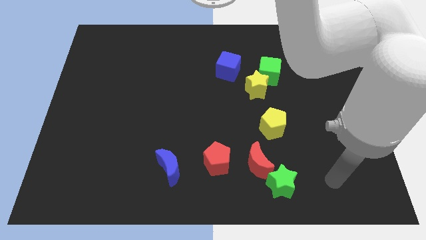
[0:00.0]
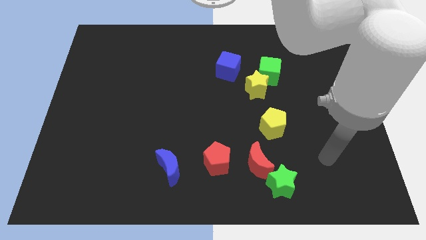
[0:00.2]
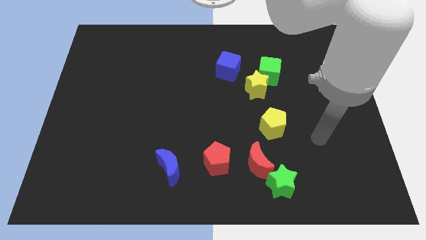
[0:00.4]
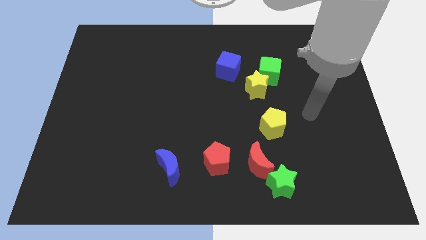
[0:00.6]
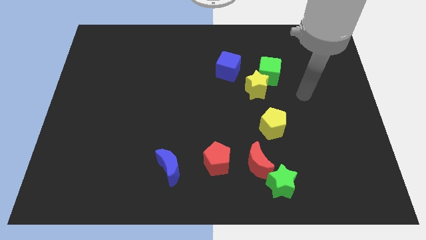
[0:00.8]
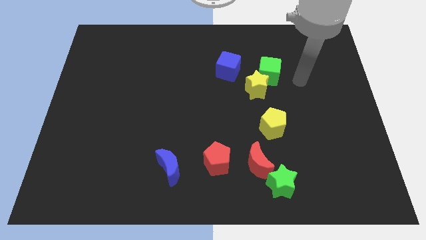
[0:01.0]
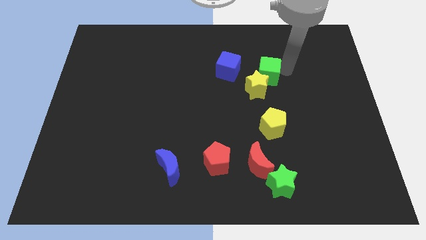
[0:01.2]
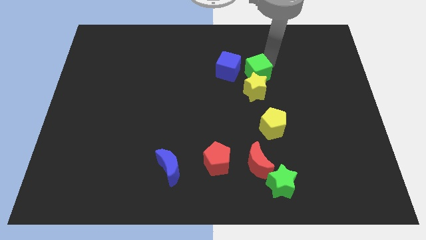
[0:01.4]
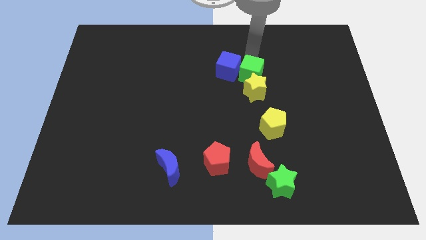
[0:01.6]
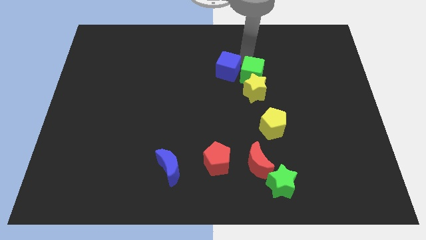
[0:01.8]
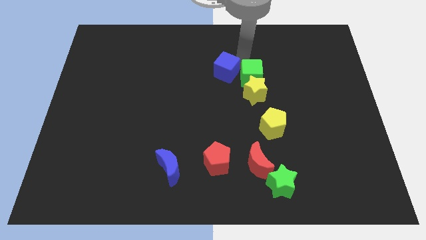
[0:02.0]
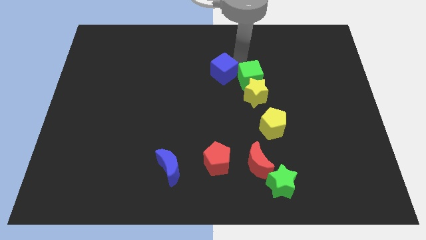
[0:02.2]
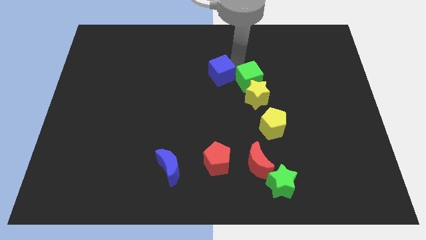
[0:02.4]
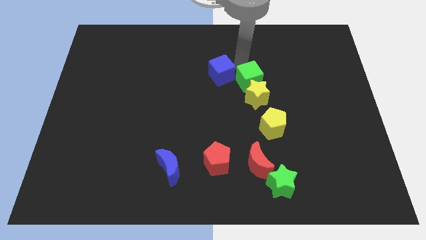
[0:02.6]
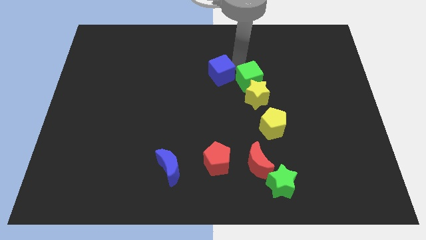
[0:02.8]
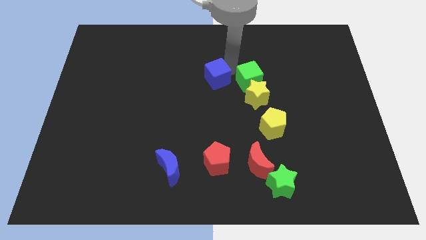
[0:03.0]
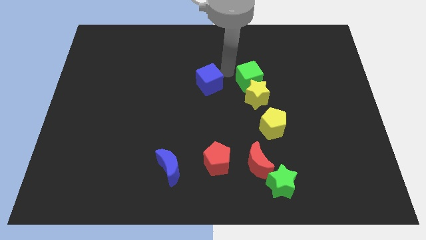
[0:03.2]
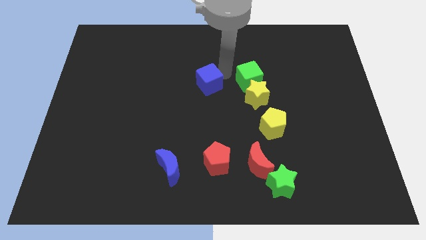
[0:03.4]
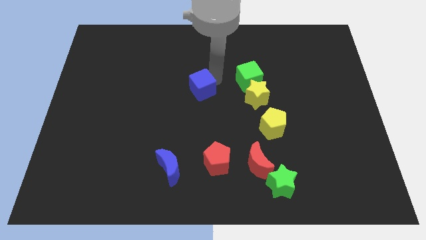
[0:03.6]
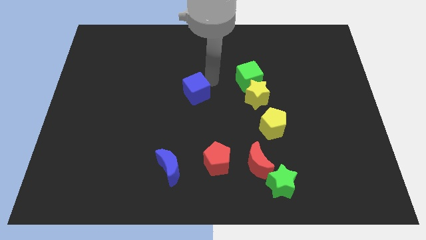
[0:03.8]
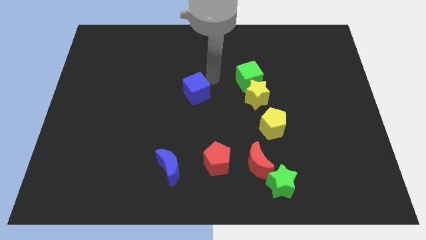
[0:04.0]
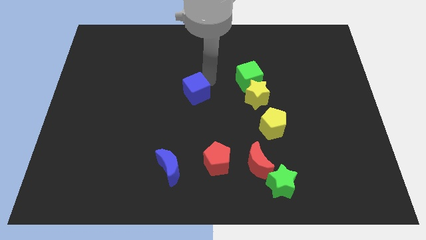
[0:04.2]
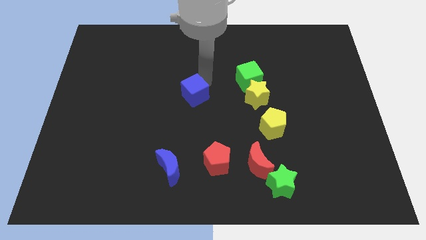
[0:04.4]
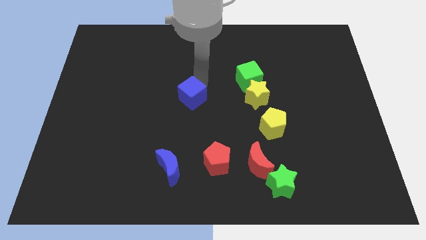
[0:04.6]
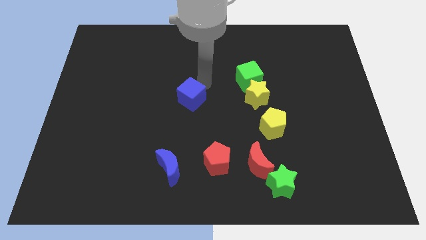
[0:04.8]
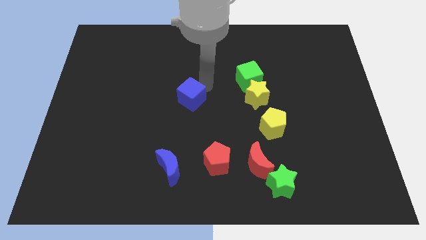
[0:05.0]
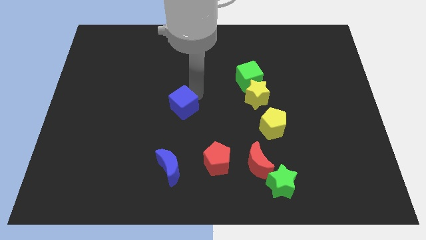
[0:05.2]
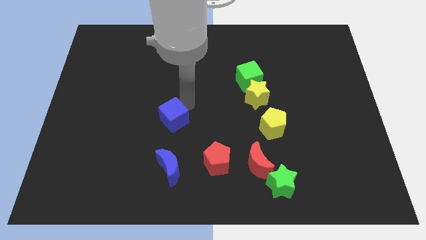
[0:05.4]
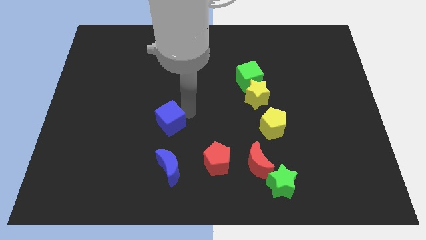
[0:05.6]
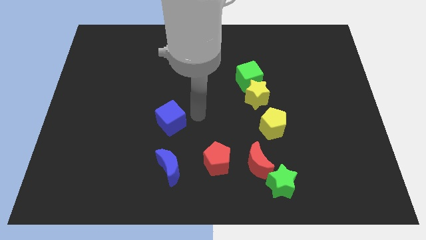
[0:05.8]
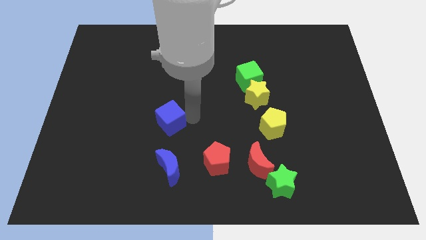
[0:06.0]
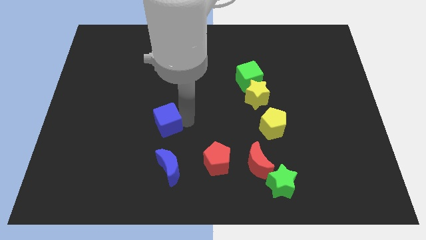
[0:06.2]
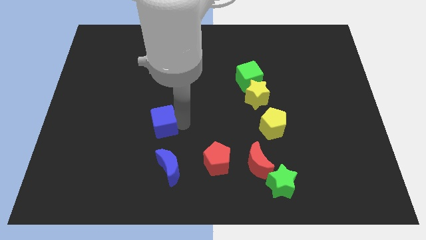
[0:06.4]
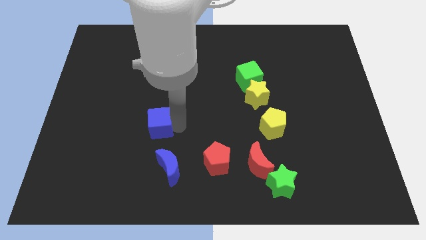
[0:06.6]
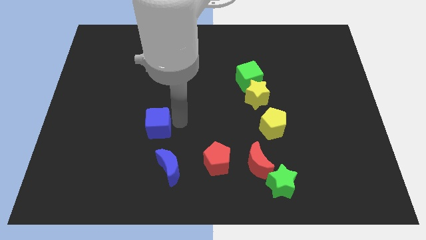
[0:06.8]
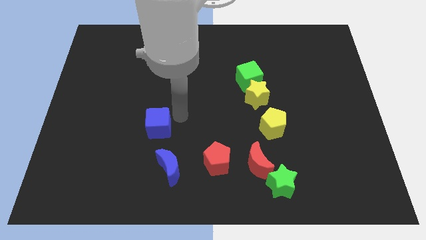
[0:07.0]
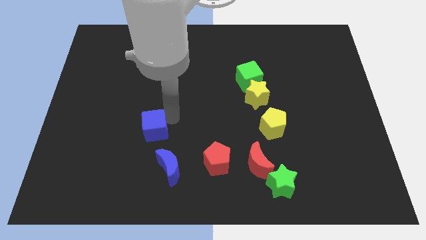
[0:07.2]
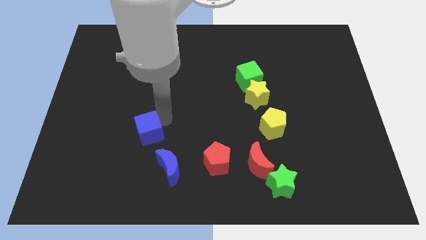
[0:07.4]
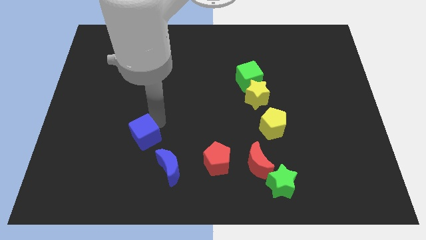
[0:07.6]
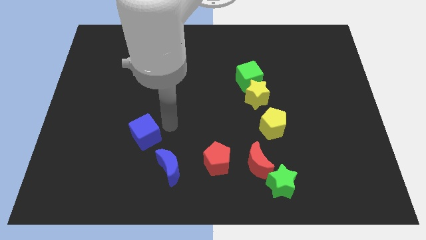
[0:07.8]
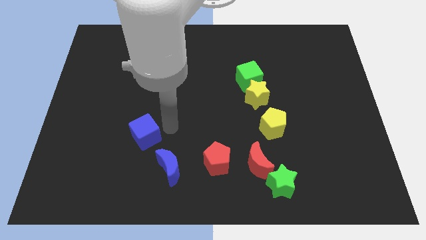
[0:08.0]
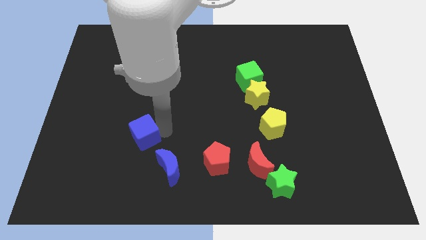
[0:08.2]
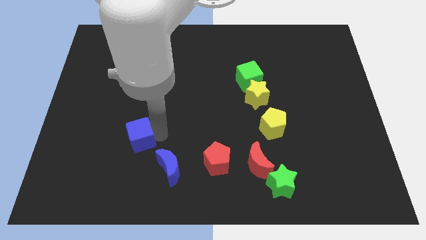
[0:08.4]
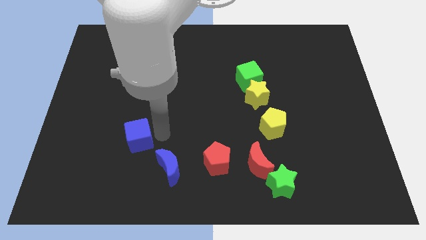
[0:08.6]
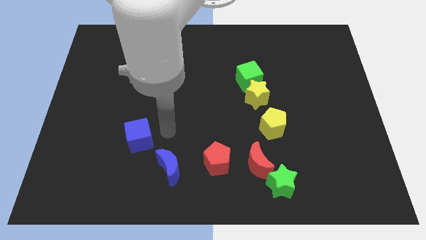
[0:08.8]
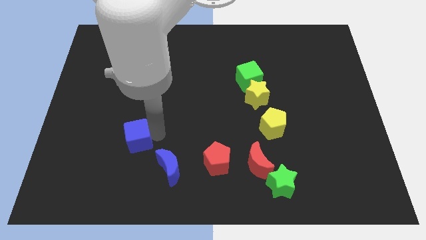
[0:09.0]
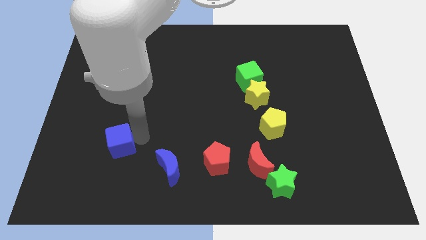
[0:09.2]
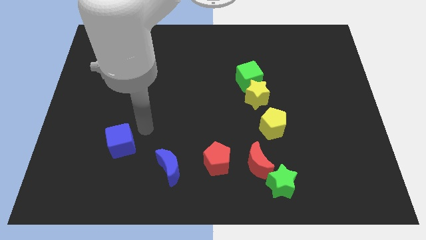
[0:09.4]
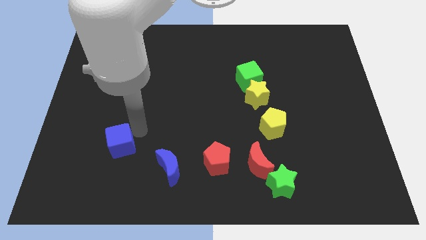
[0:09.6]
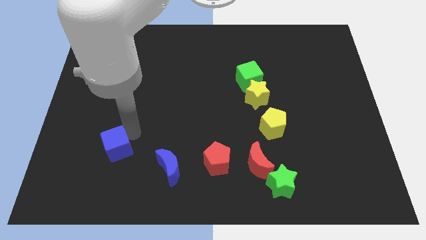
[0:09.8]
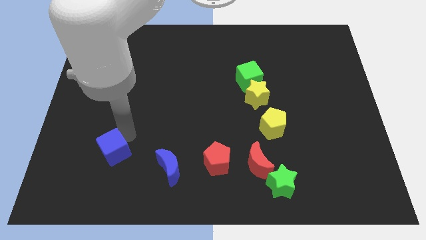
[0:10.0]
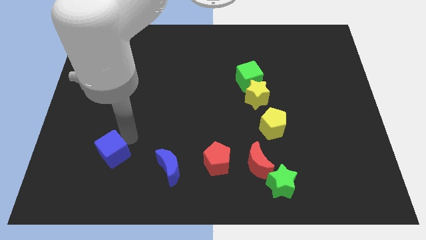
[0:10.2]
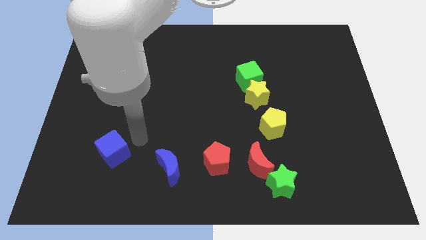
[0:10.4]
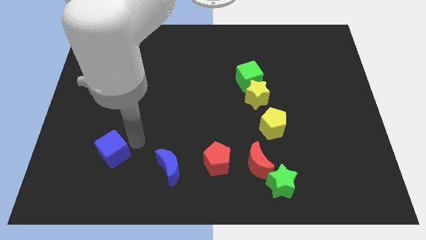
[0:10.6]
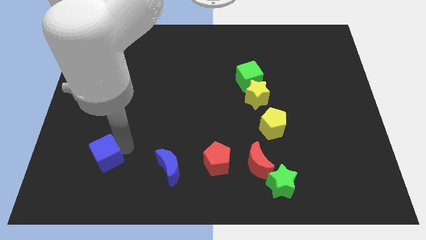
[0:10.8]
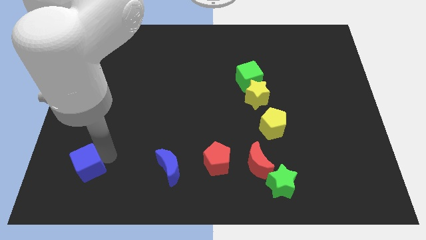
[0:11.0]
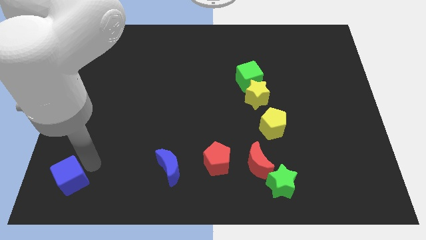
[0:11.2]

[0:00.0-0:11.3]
slide the blue cube to the lower left corner

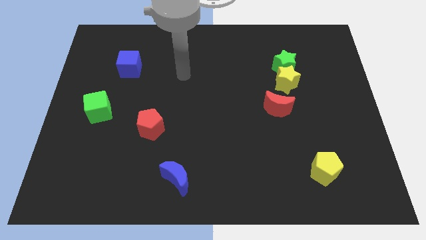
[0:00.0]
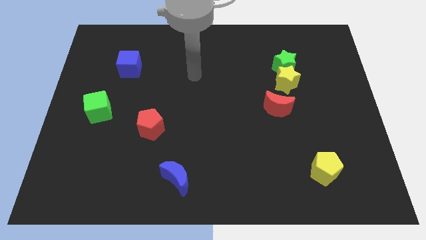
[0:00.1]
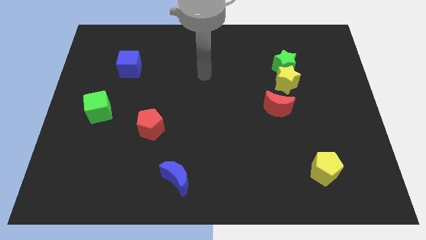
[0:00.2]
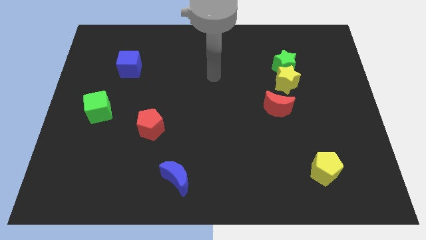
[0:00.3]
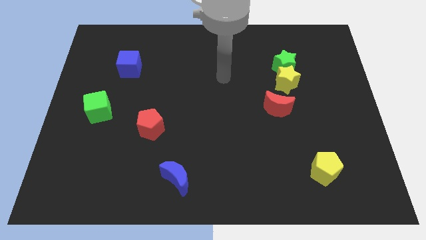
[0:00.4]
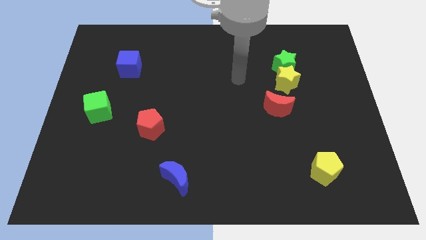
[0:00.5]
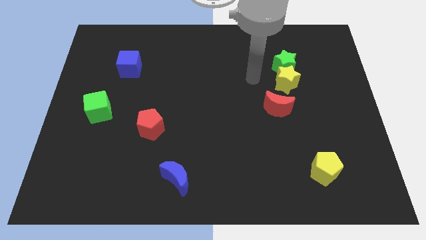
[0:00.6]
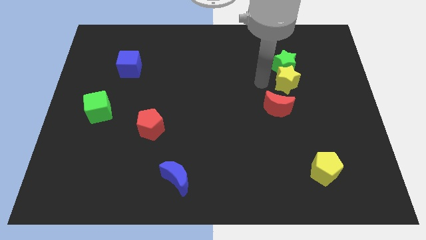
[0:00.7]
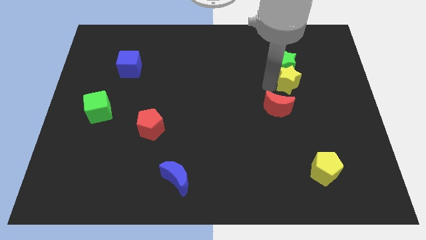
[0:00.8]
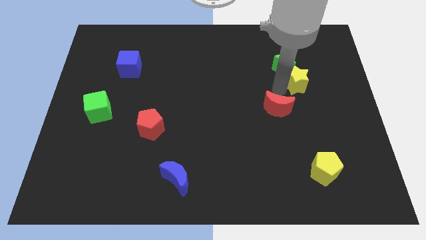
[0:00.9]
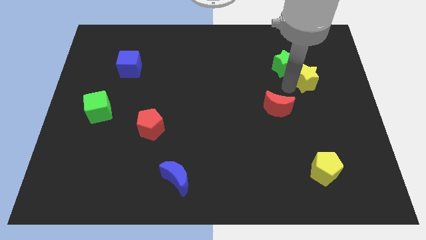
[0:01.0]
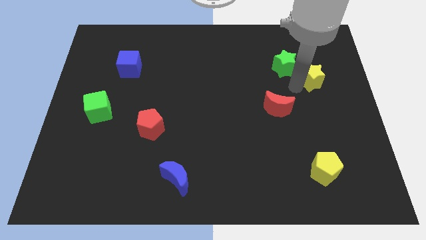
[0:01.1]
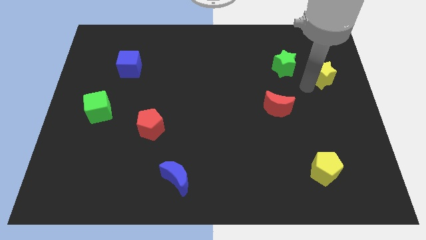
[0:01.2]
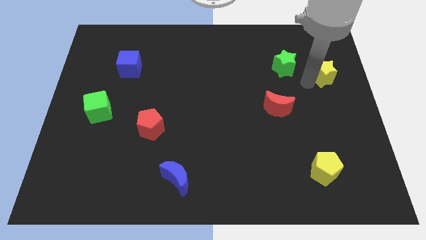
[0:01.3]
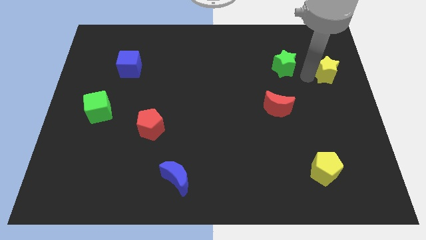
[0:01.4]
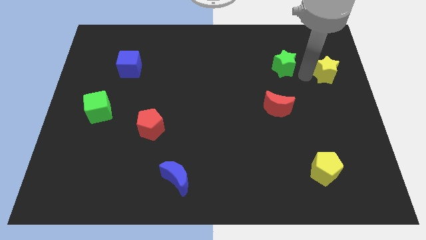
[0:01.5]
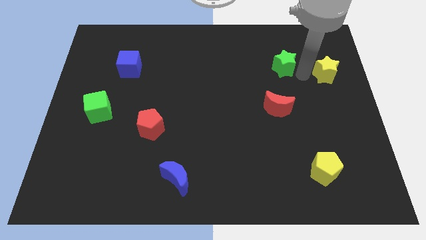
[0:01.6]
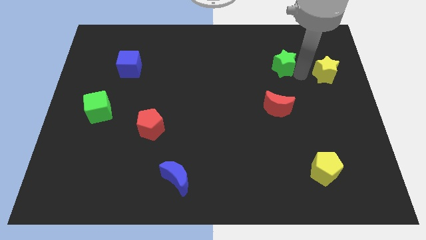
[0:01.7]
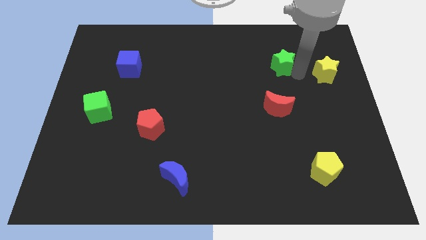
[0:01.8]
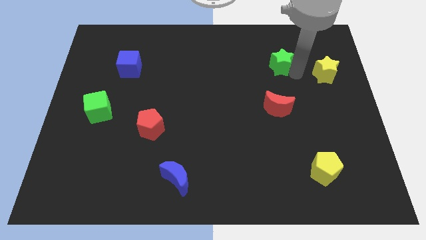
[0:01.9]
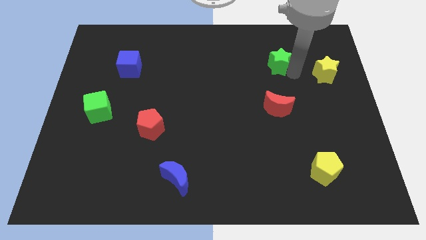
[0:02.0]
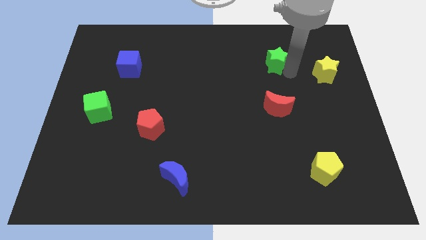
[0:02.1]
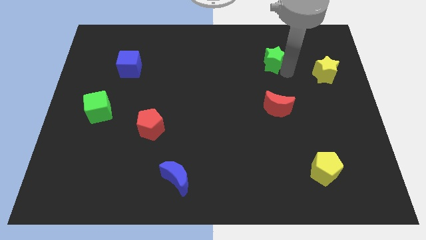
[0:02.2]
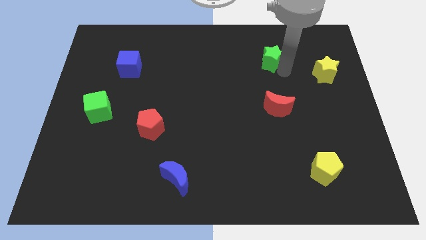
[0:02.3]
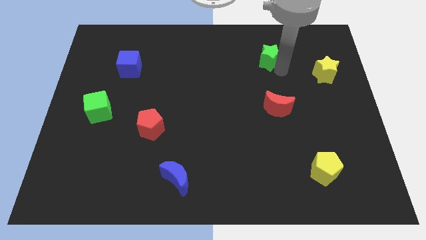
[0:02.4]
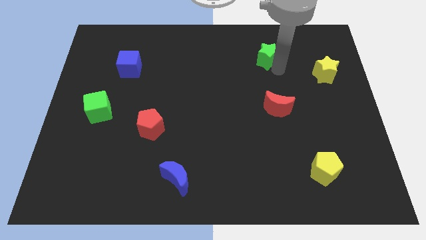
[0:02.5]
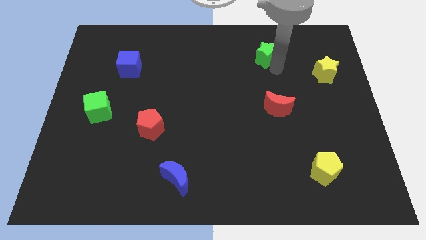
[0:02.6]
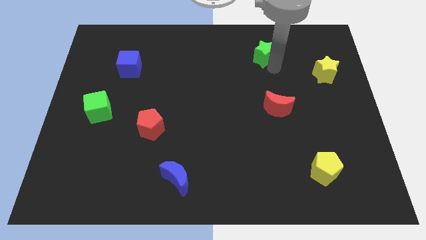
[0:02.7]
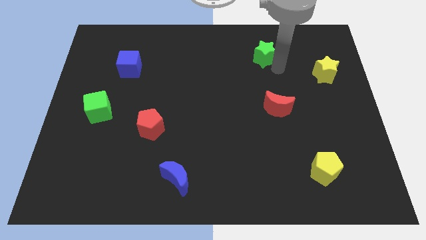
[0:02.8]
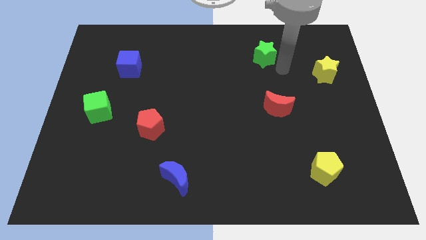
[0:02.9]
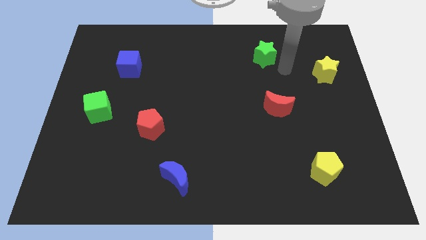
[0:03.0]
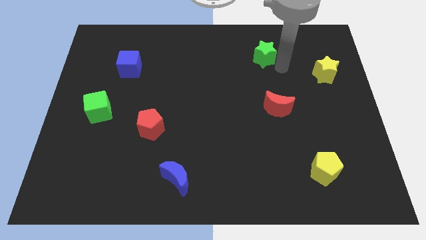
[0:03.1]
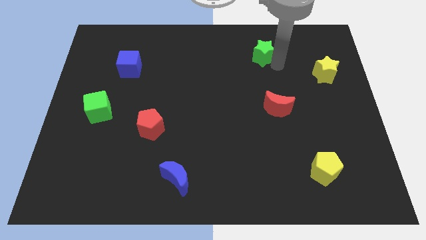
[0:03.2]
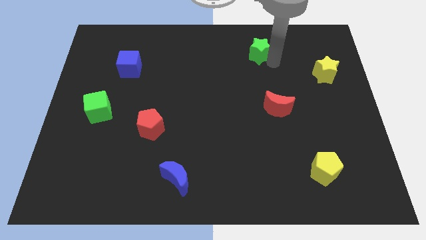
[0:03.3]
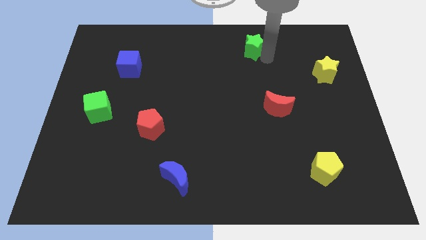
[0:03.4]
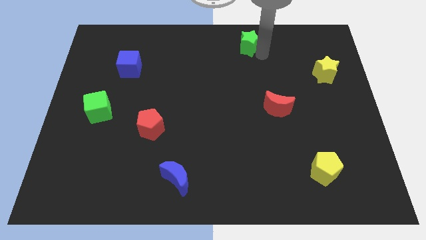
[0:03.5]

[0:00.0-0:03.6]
move the green star to the towards your base
